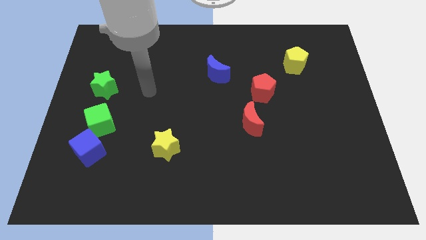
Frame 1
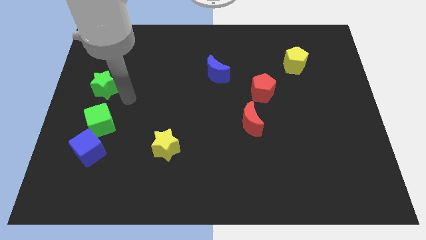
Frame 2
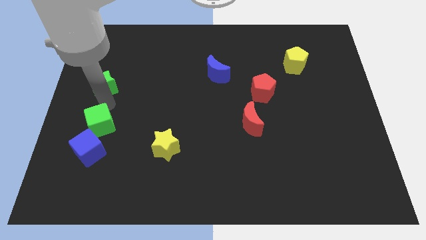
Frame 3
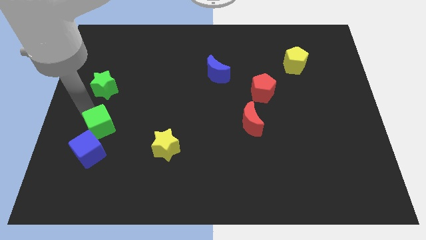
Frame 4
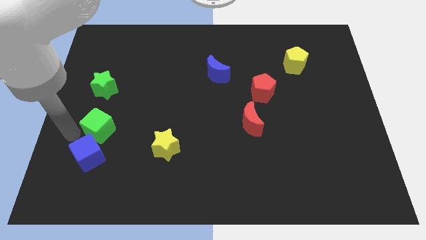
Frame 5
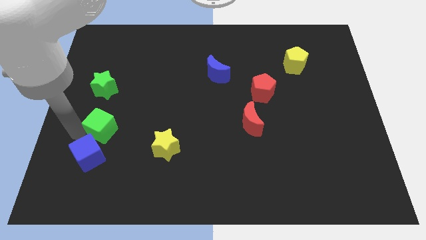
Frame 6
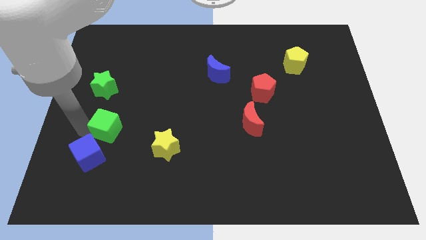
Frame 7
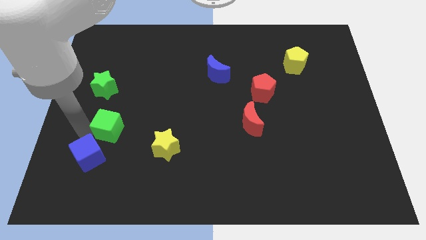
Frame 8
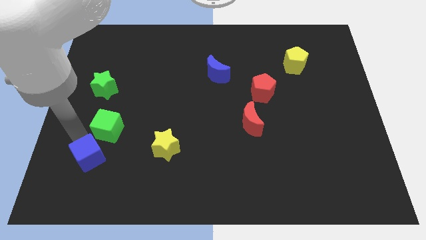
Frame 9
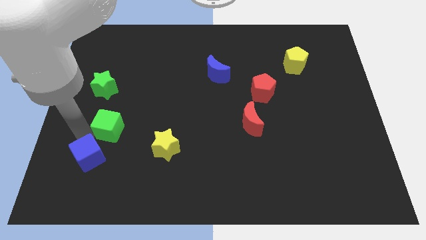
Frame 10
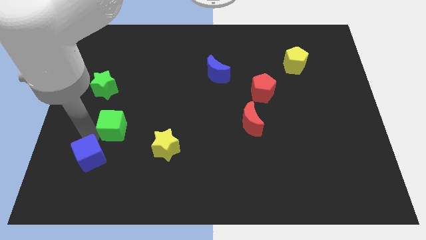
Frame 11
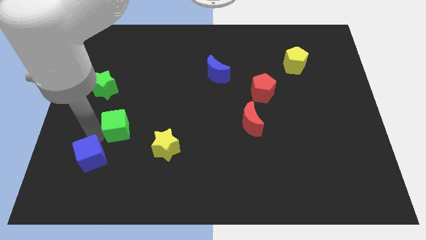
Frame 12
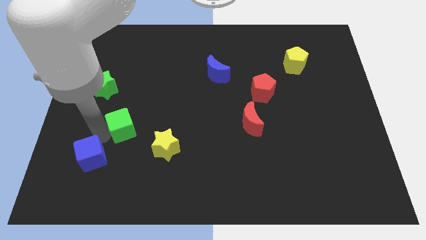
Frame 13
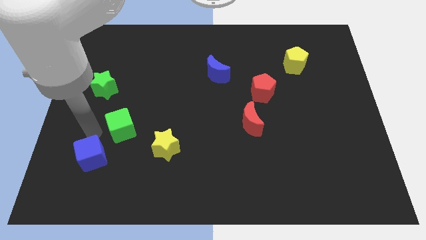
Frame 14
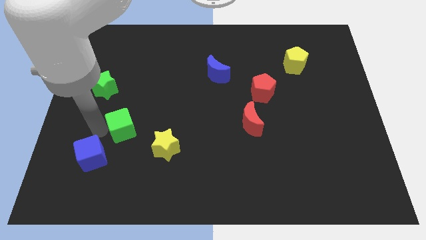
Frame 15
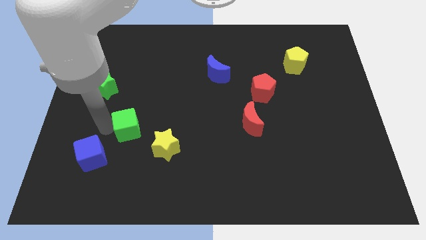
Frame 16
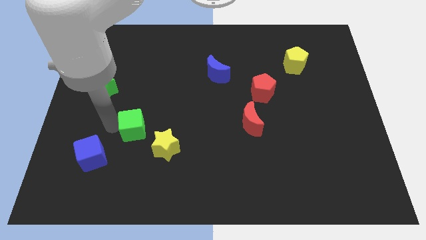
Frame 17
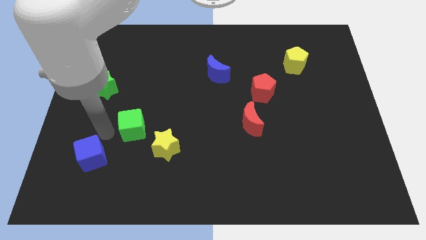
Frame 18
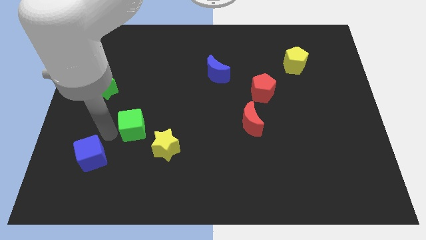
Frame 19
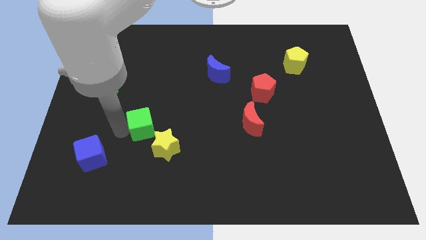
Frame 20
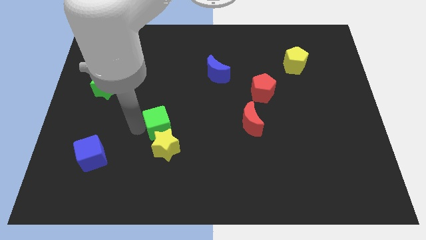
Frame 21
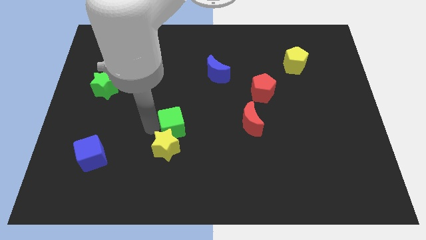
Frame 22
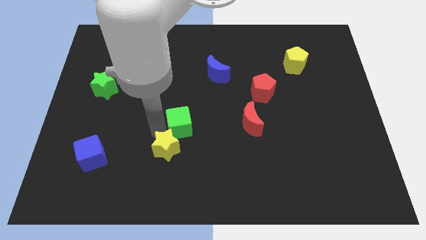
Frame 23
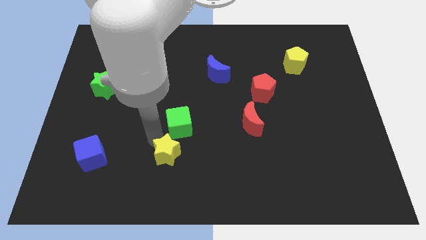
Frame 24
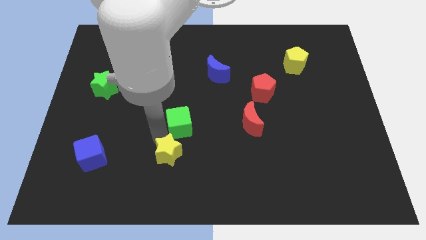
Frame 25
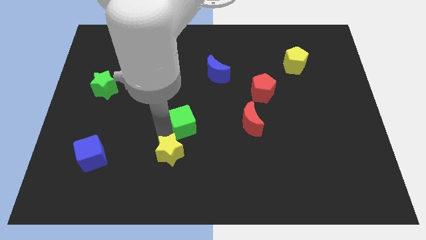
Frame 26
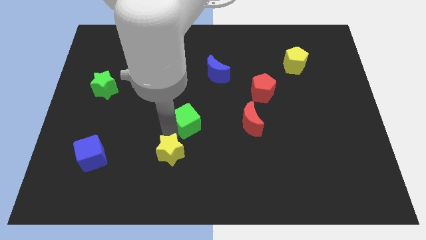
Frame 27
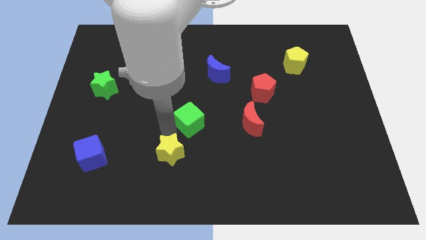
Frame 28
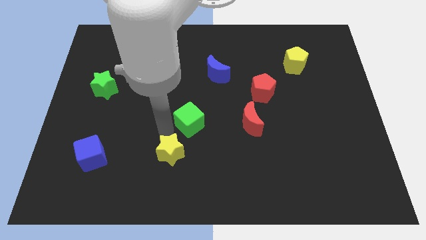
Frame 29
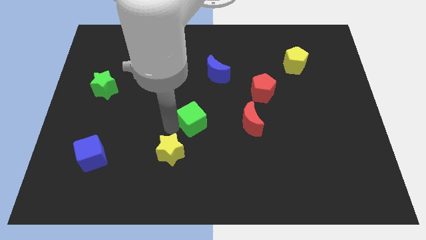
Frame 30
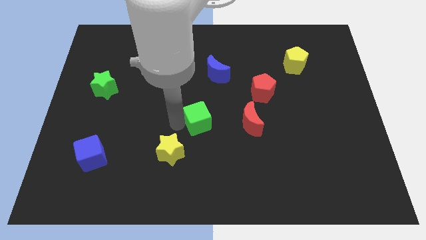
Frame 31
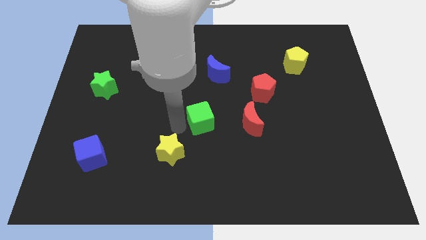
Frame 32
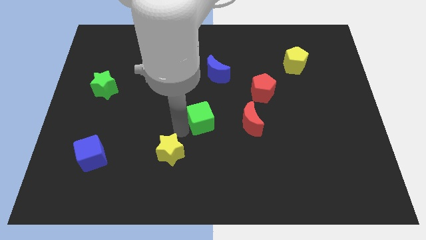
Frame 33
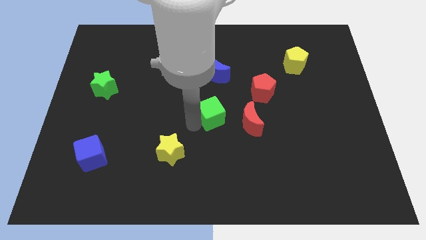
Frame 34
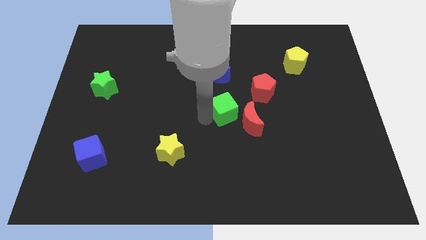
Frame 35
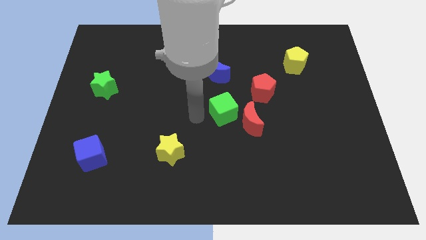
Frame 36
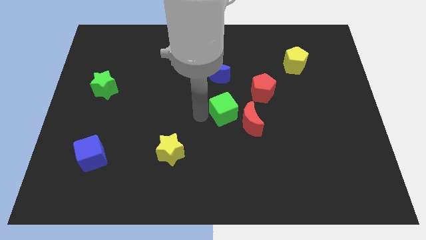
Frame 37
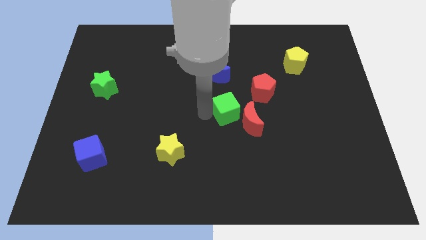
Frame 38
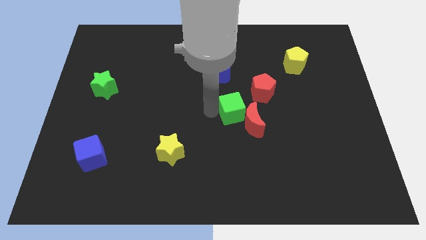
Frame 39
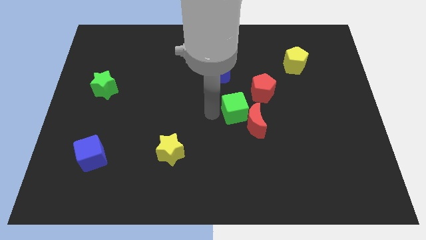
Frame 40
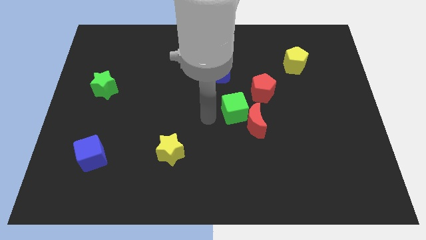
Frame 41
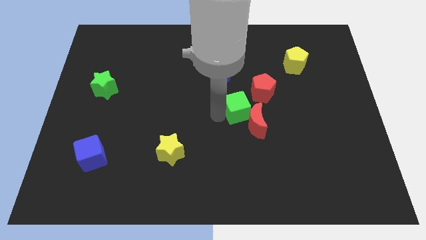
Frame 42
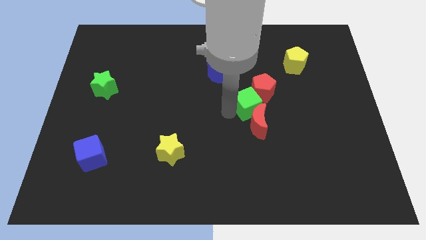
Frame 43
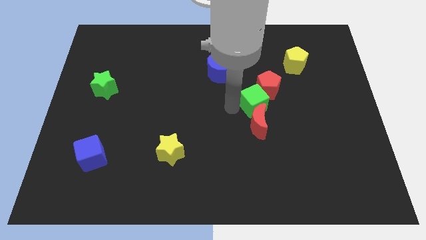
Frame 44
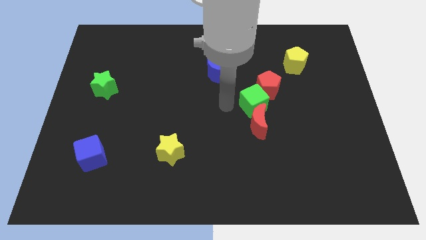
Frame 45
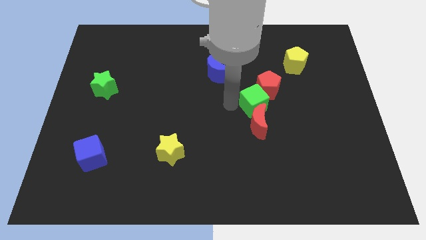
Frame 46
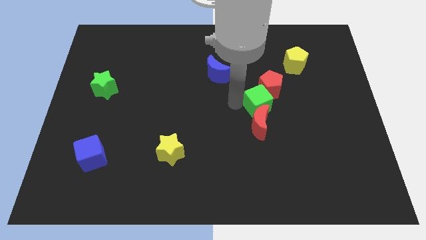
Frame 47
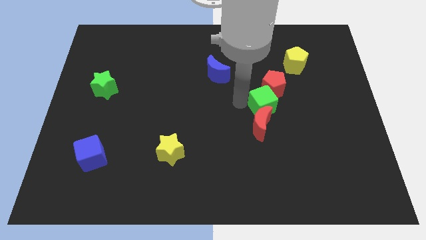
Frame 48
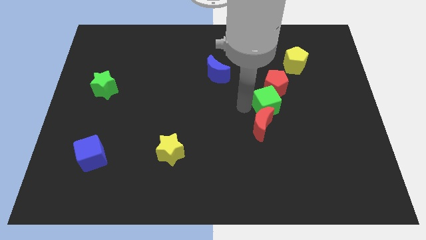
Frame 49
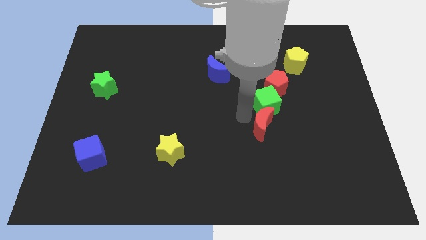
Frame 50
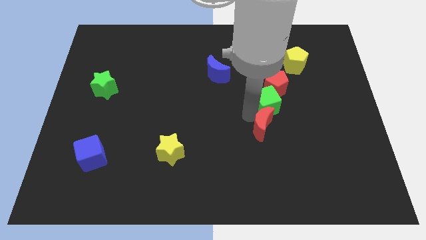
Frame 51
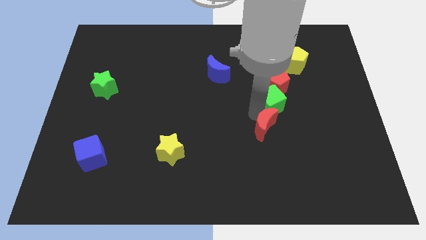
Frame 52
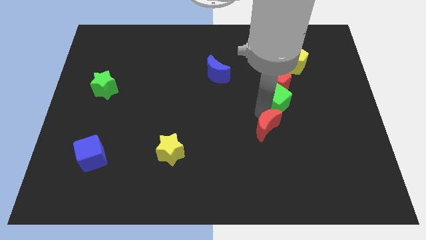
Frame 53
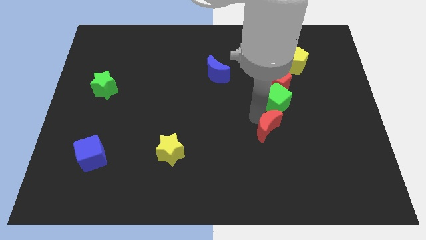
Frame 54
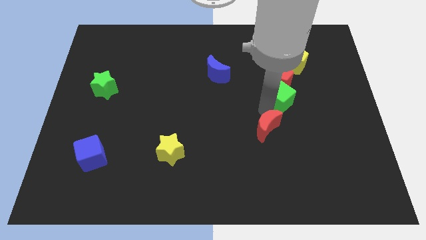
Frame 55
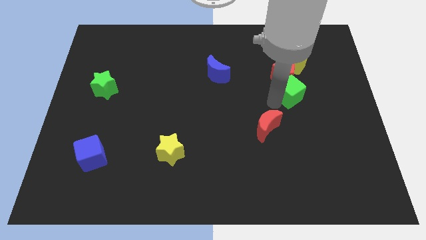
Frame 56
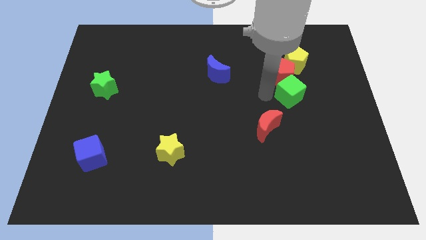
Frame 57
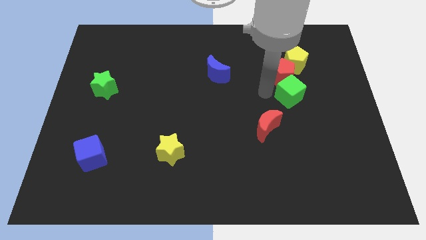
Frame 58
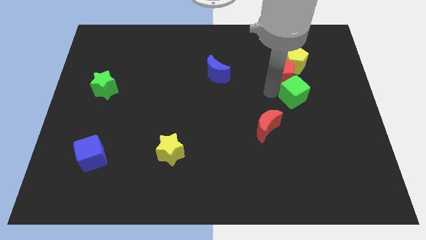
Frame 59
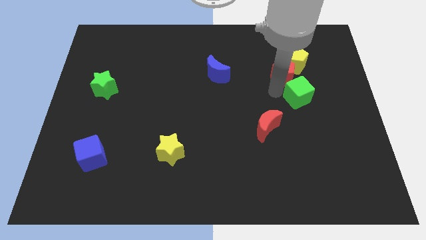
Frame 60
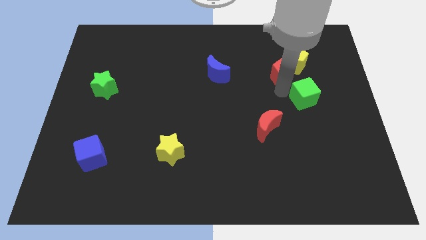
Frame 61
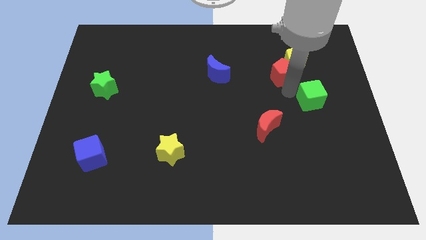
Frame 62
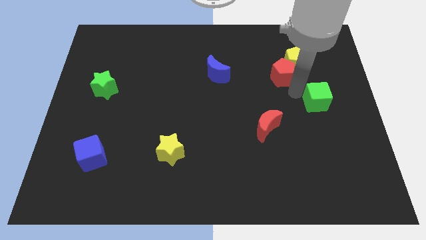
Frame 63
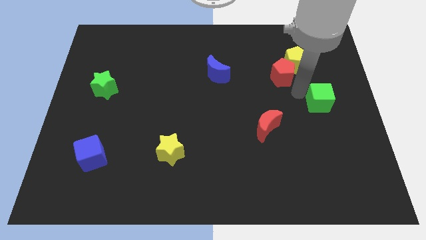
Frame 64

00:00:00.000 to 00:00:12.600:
slide the green cube to the center right
